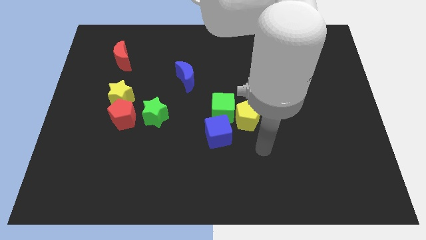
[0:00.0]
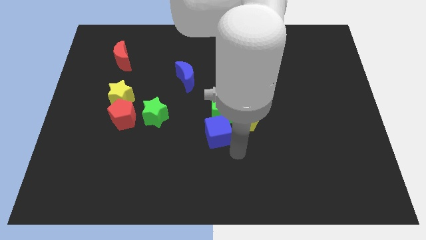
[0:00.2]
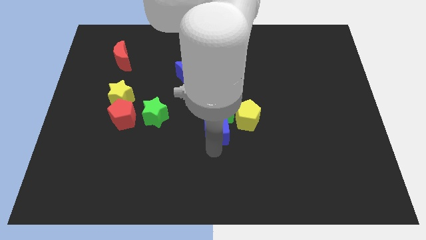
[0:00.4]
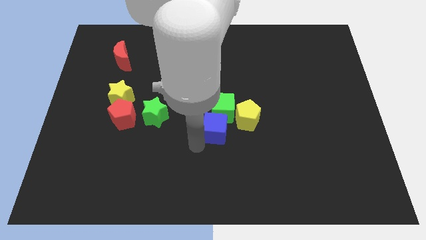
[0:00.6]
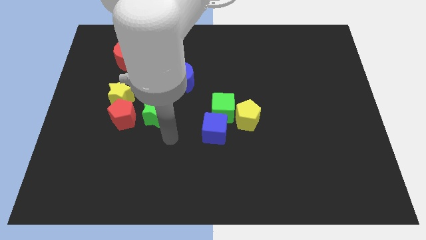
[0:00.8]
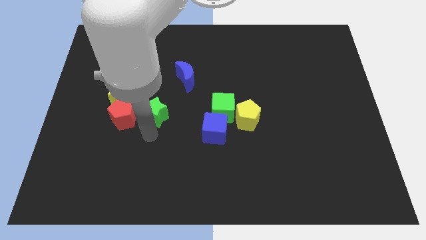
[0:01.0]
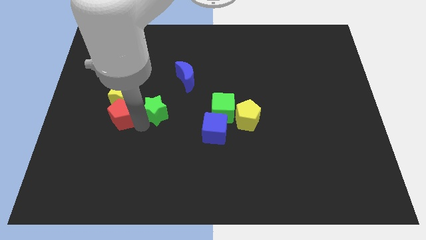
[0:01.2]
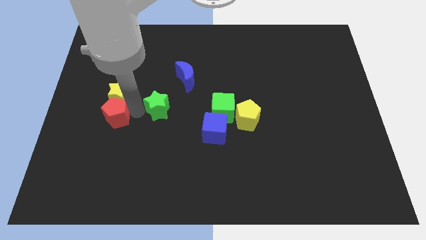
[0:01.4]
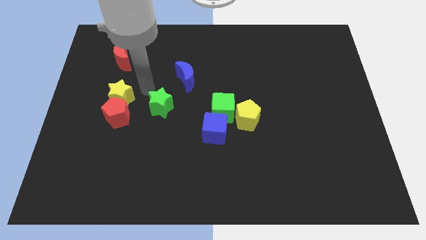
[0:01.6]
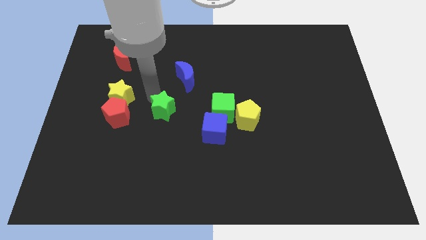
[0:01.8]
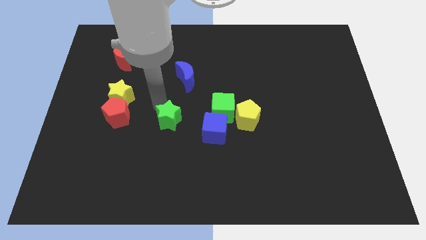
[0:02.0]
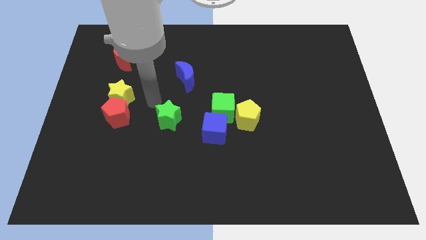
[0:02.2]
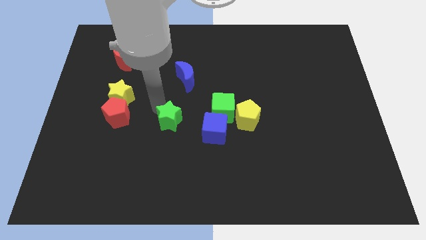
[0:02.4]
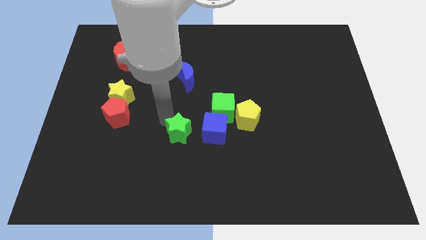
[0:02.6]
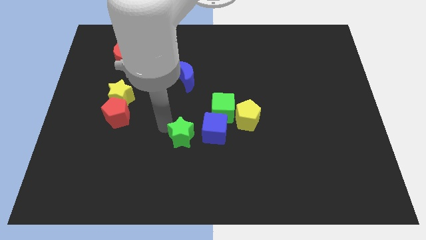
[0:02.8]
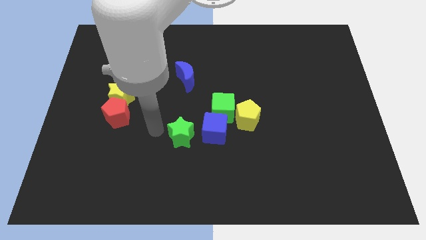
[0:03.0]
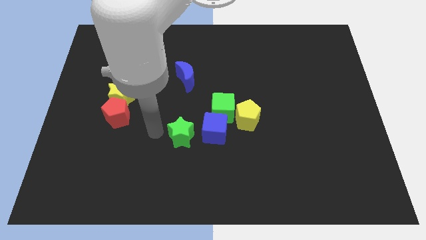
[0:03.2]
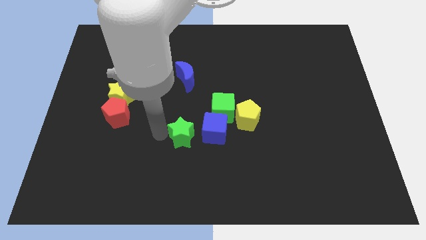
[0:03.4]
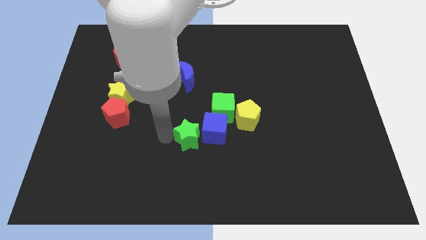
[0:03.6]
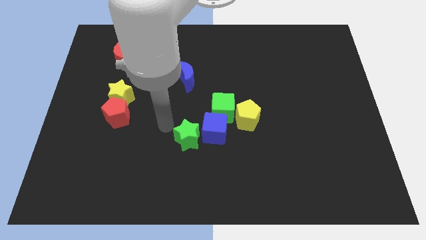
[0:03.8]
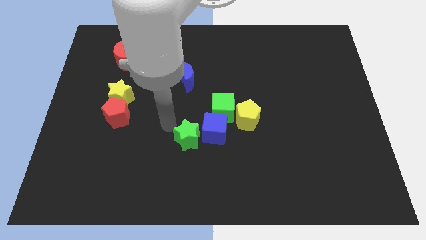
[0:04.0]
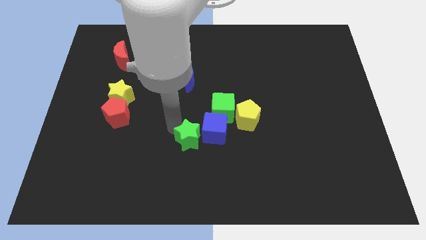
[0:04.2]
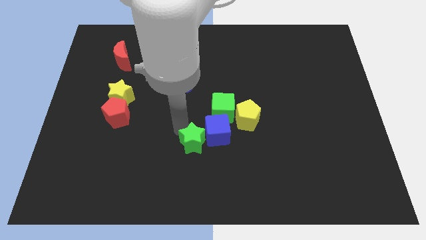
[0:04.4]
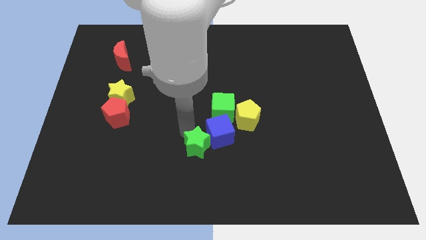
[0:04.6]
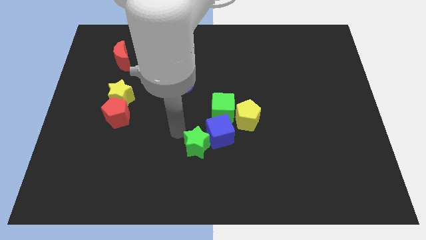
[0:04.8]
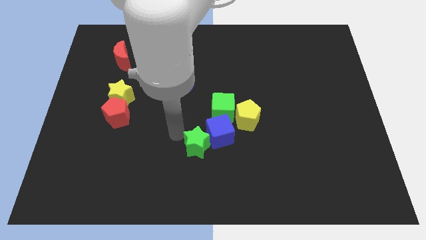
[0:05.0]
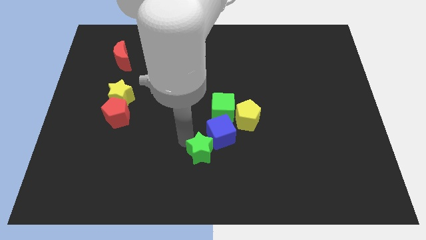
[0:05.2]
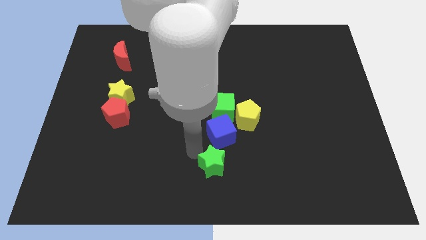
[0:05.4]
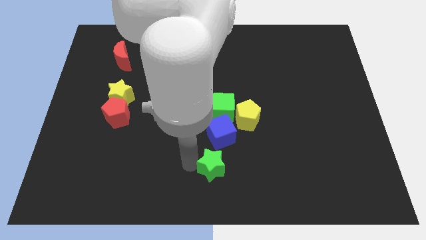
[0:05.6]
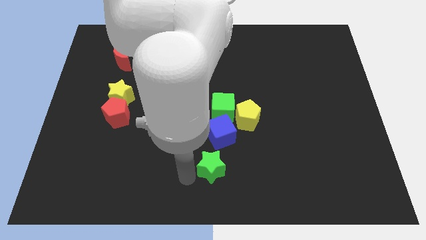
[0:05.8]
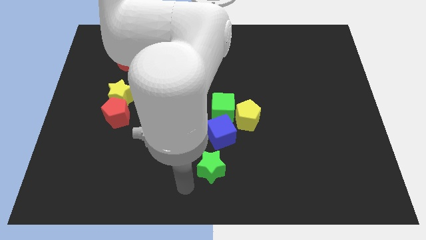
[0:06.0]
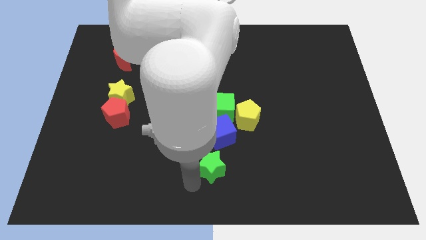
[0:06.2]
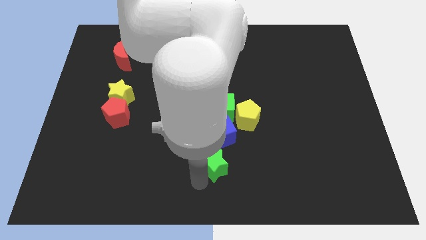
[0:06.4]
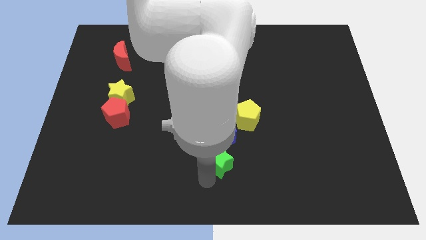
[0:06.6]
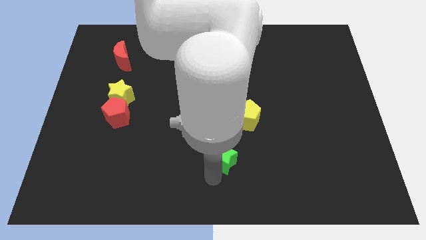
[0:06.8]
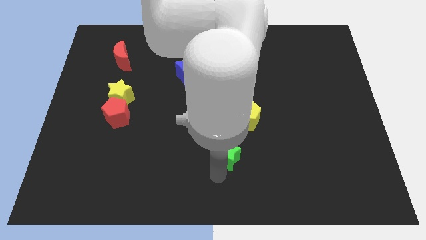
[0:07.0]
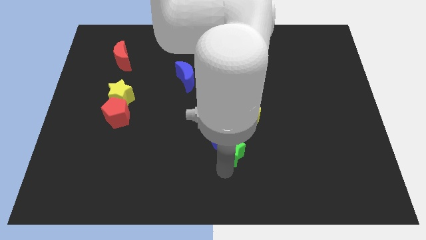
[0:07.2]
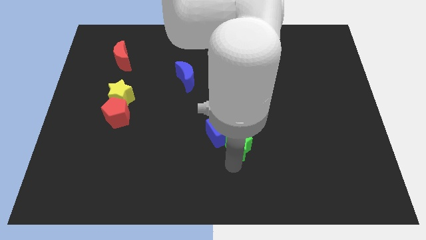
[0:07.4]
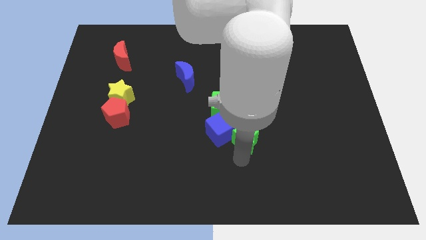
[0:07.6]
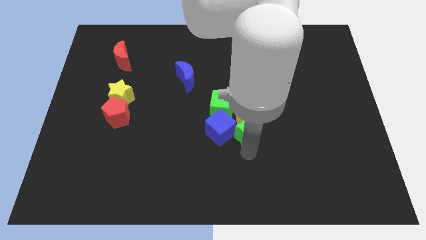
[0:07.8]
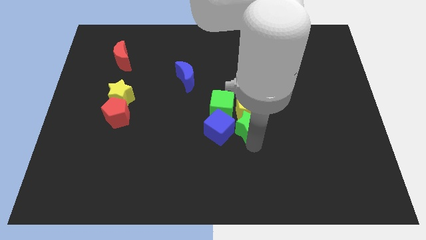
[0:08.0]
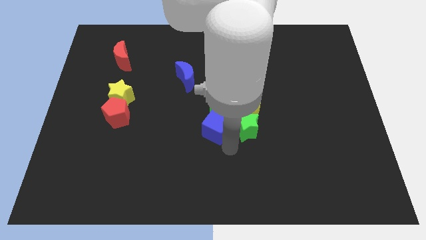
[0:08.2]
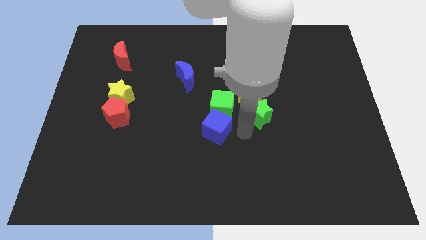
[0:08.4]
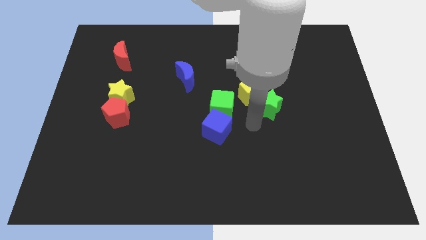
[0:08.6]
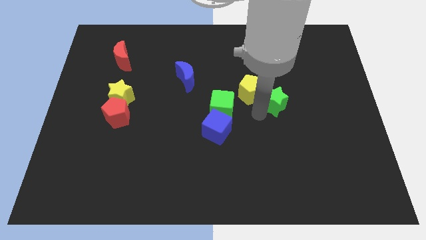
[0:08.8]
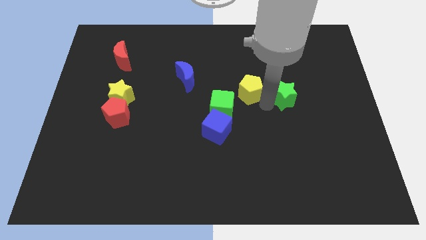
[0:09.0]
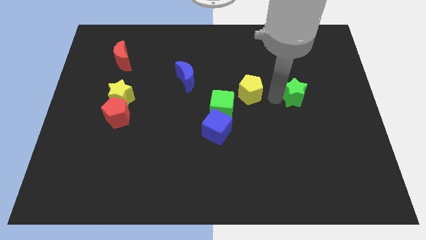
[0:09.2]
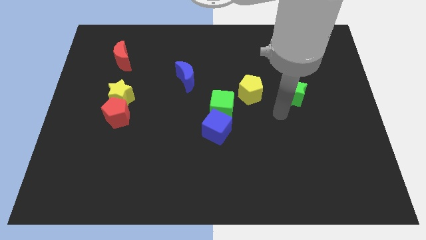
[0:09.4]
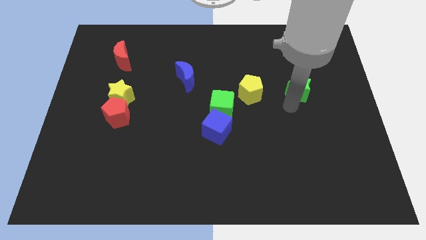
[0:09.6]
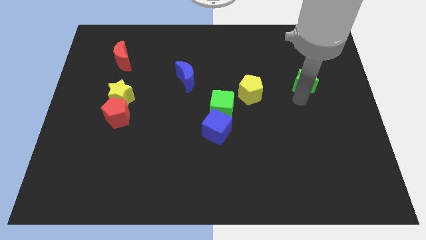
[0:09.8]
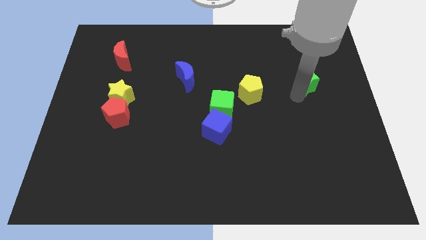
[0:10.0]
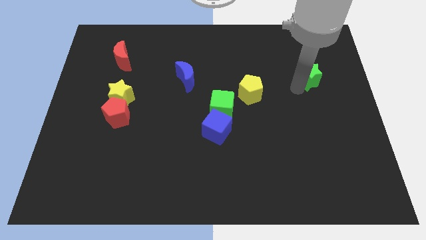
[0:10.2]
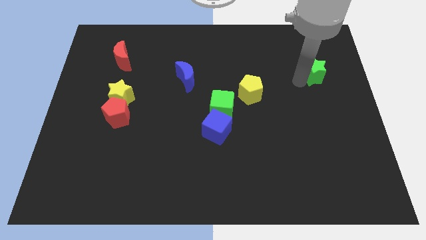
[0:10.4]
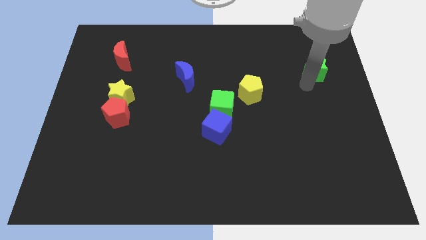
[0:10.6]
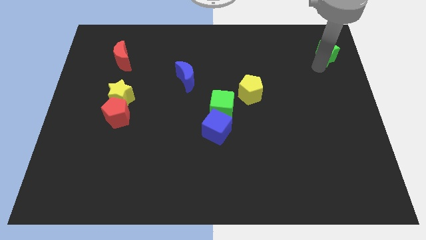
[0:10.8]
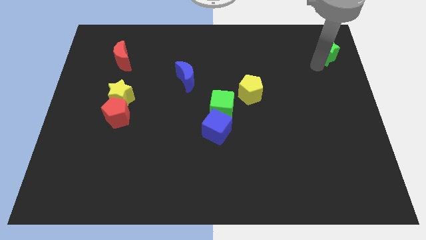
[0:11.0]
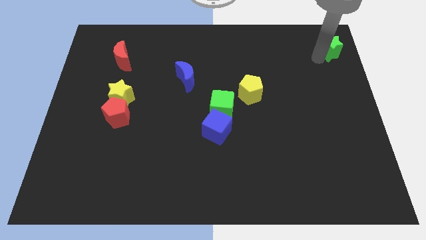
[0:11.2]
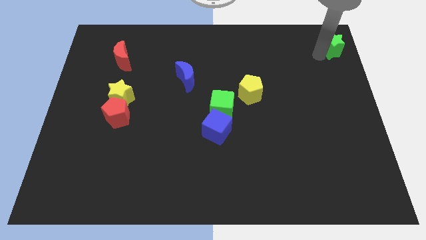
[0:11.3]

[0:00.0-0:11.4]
slide the green star to the top right
